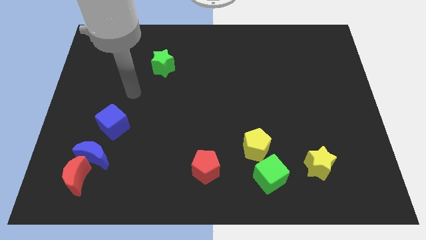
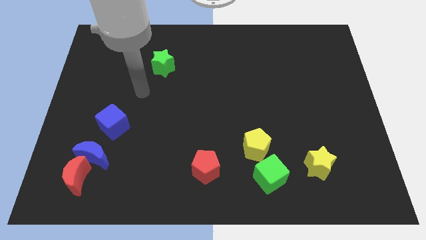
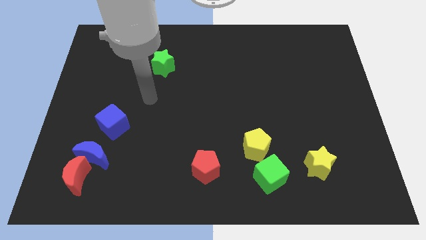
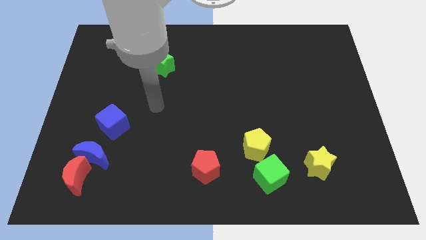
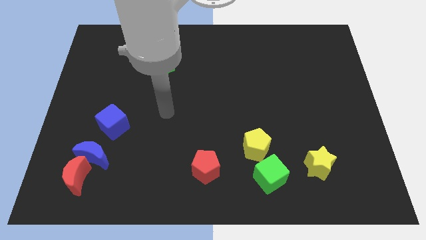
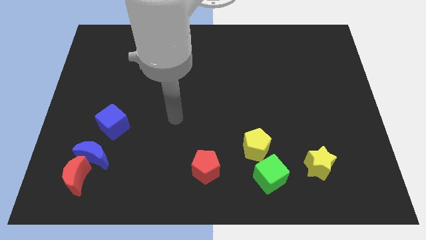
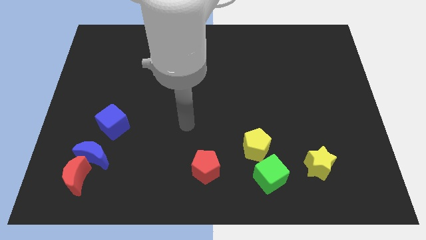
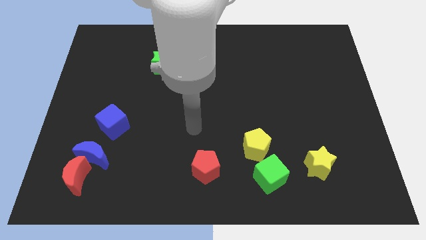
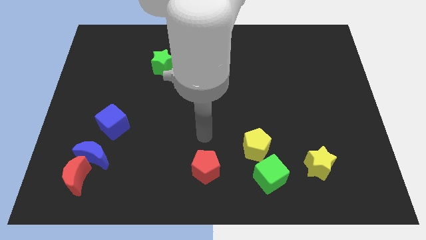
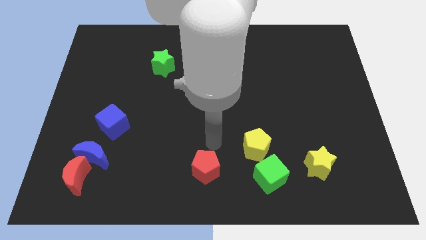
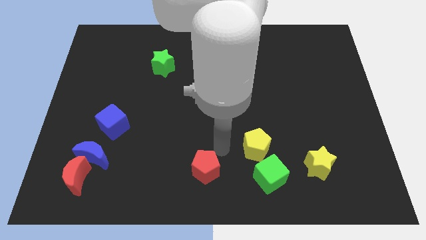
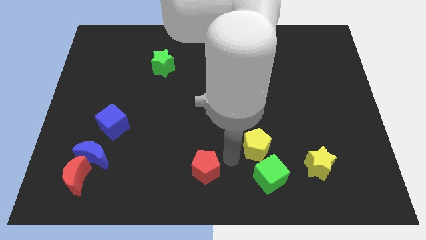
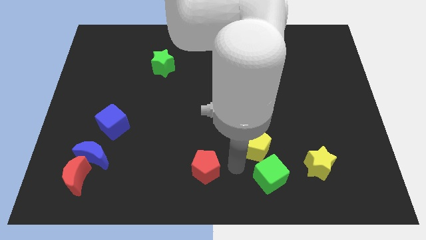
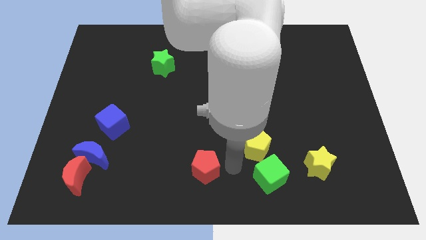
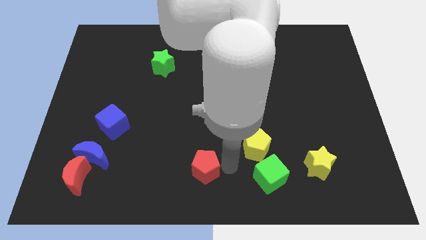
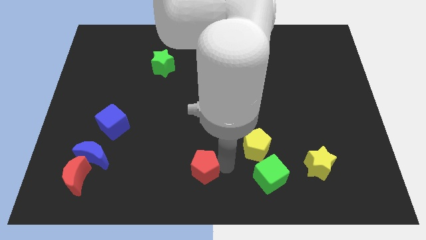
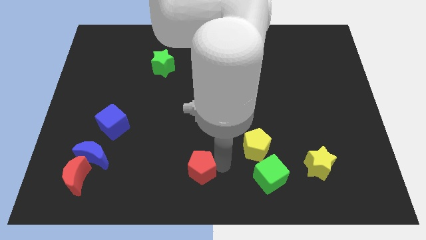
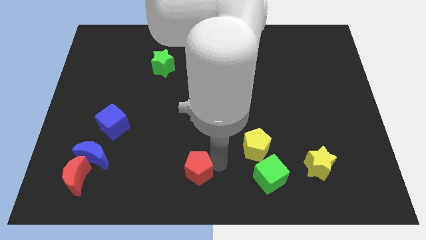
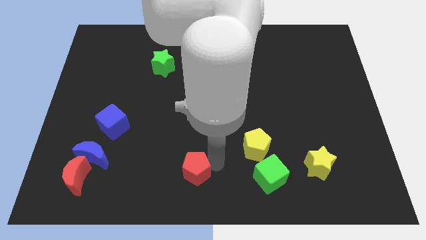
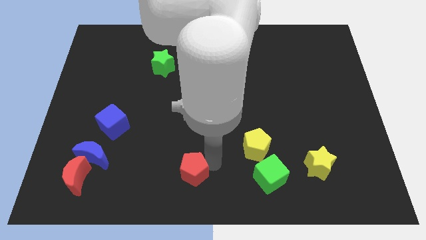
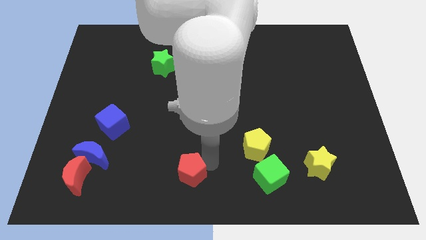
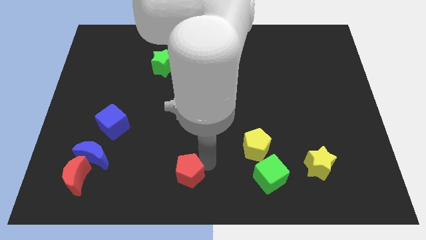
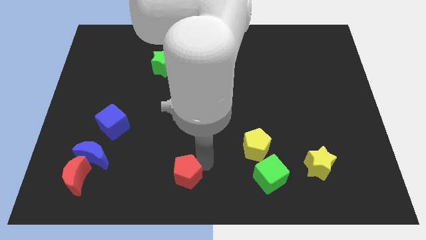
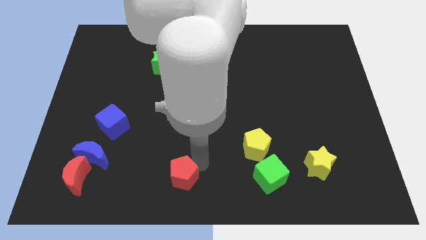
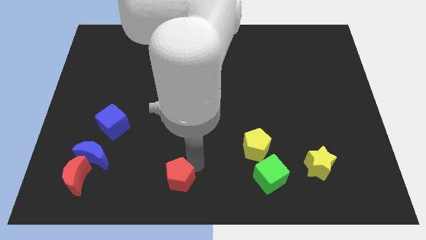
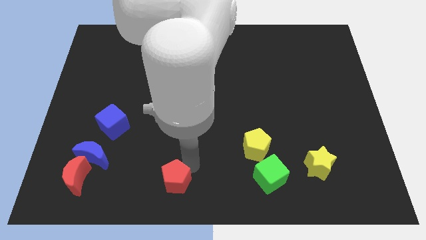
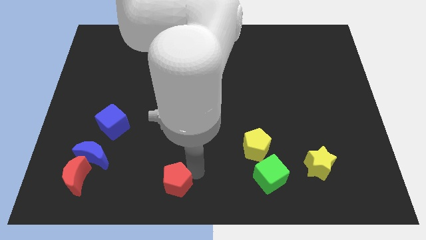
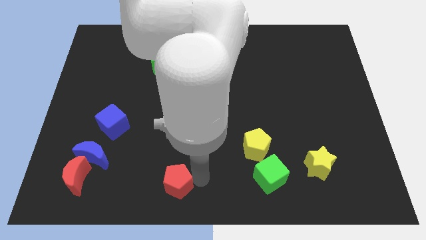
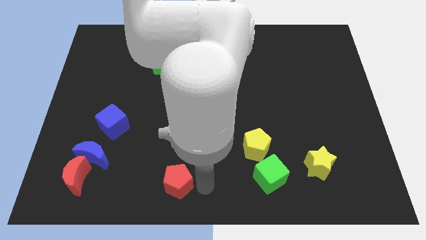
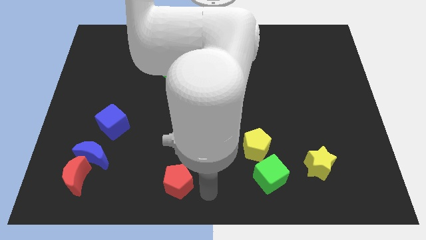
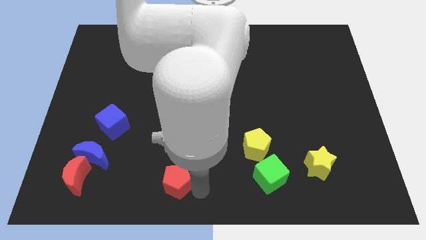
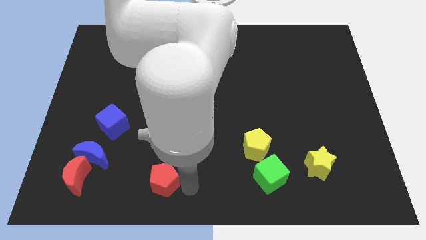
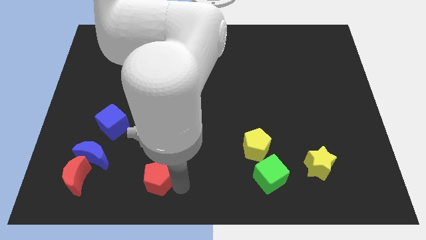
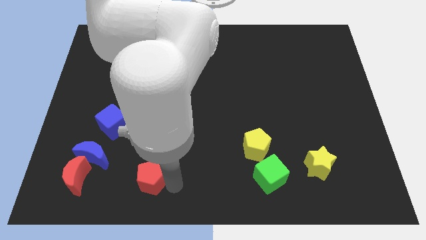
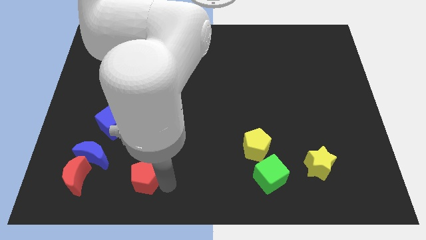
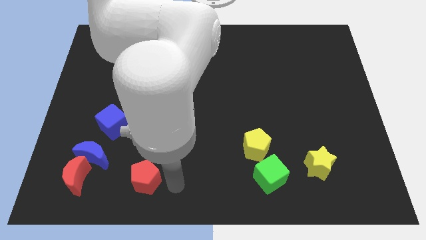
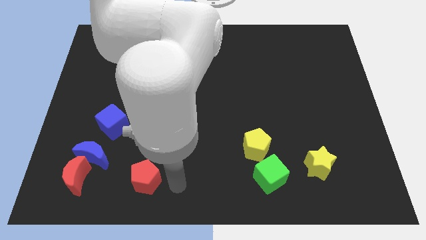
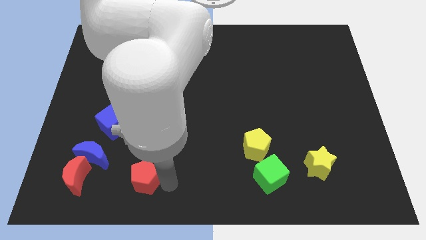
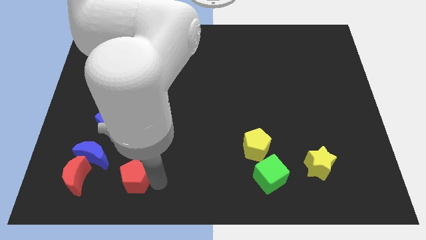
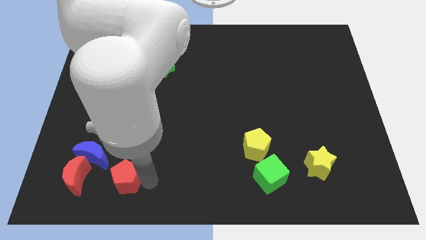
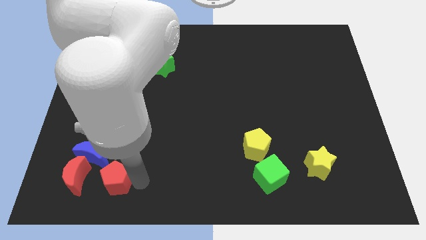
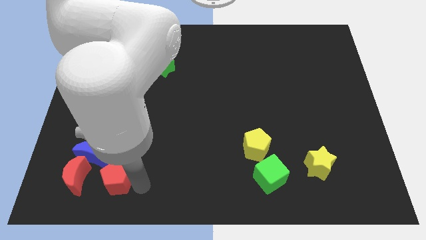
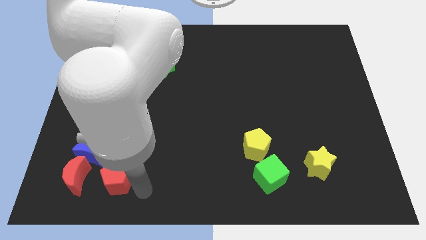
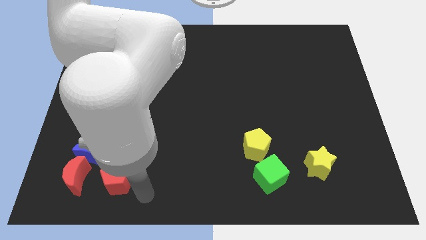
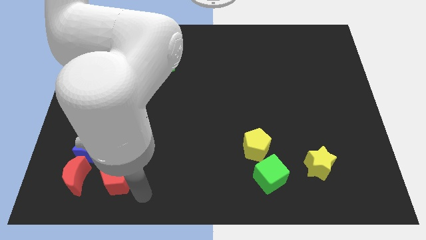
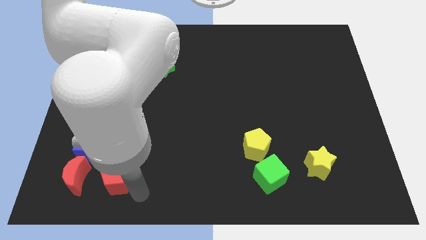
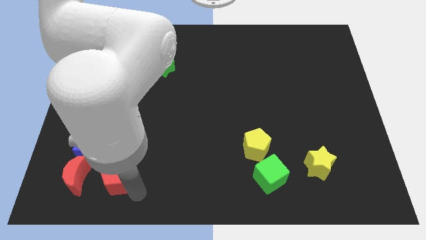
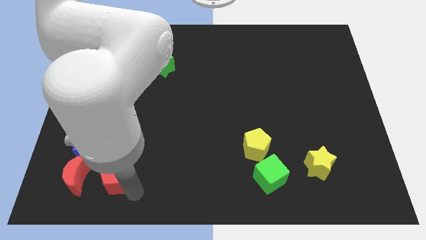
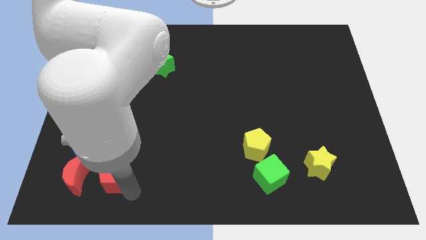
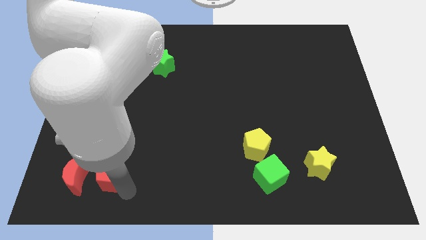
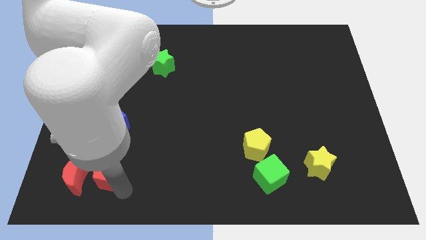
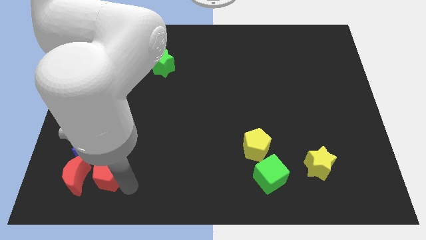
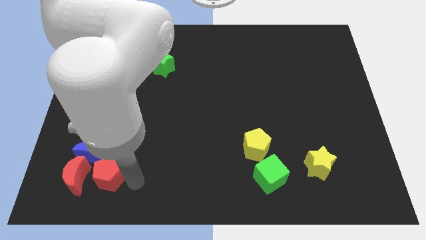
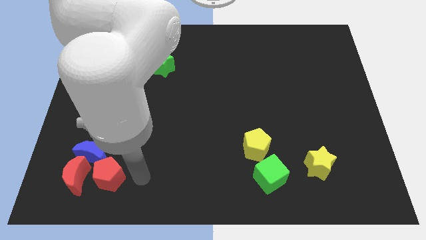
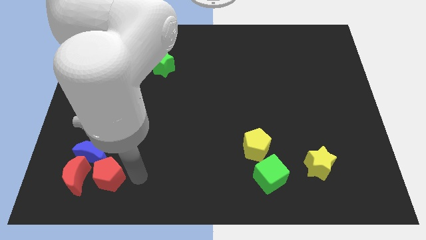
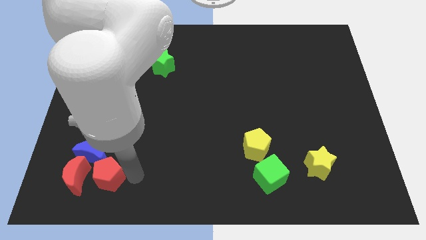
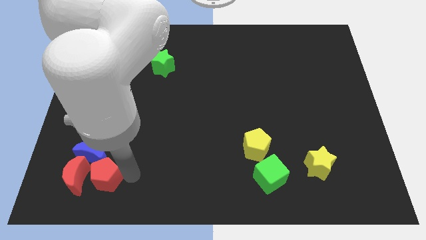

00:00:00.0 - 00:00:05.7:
move the red pentagon towards the red moon

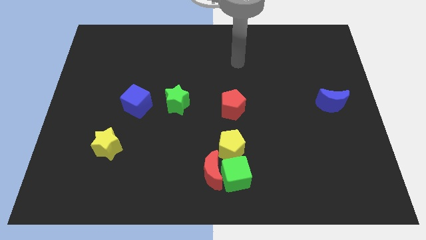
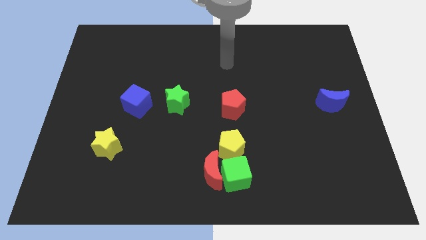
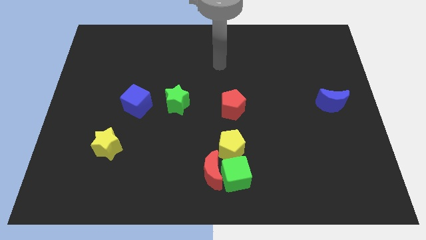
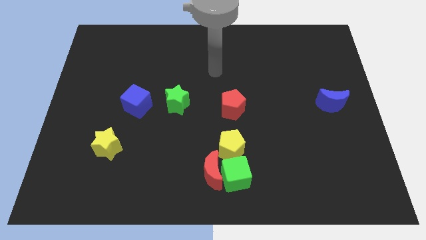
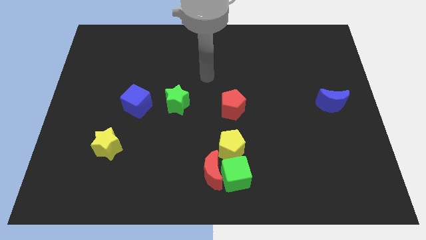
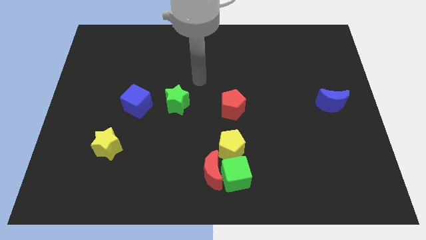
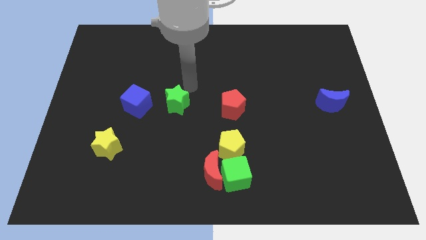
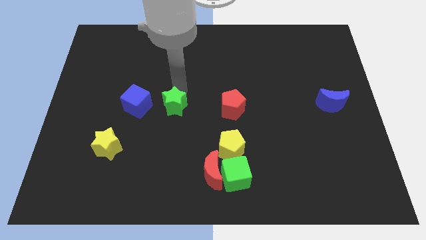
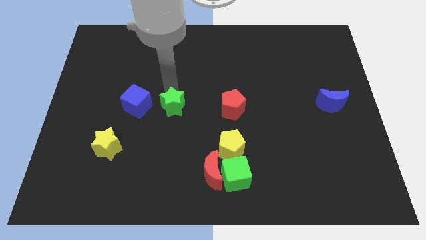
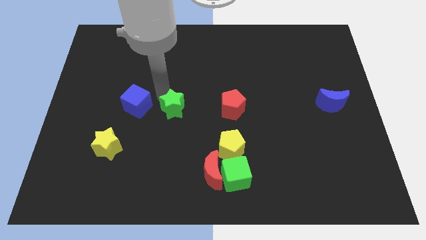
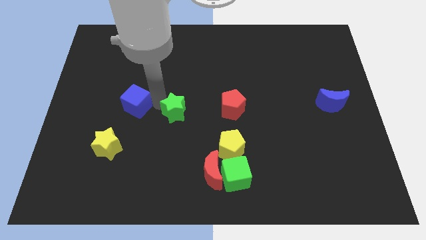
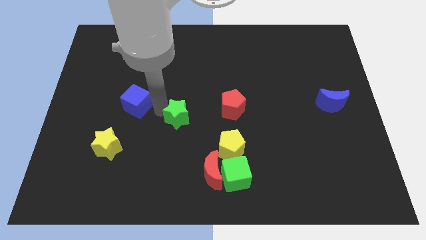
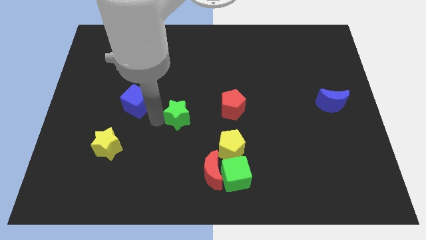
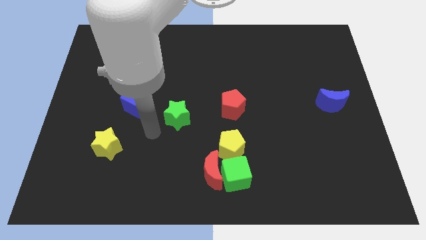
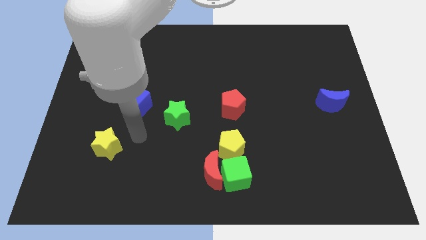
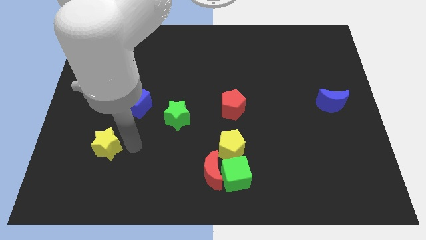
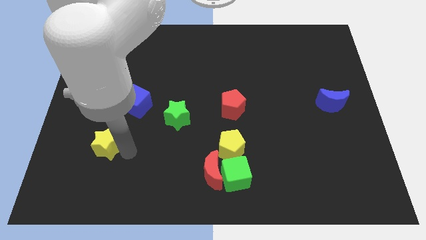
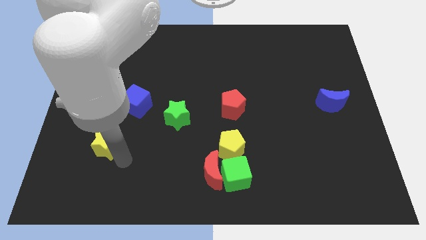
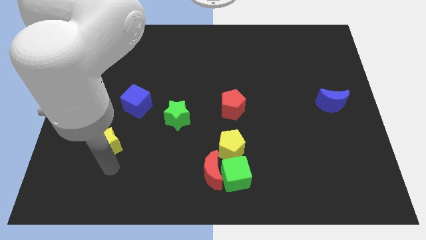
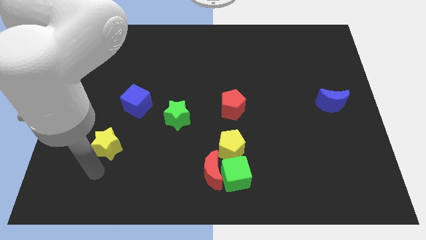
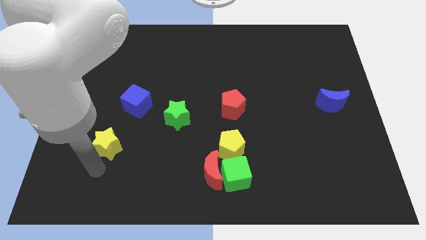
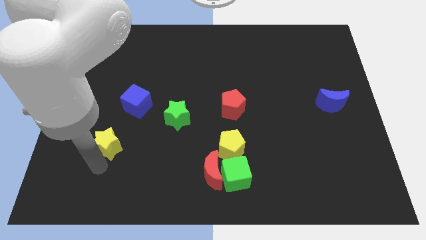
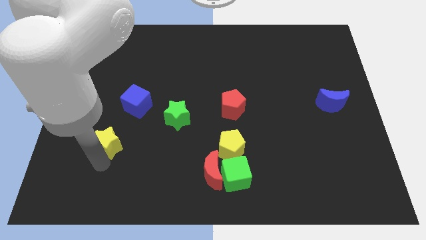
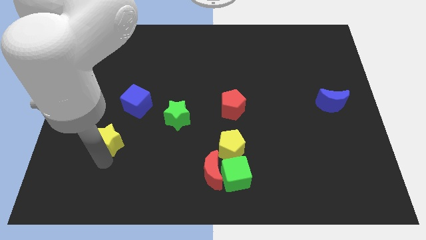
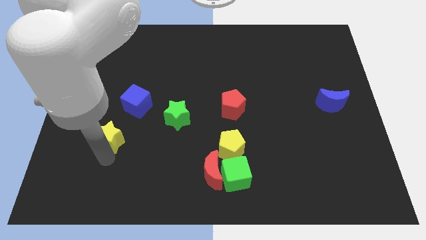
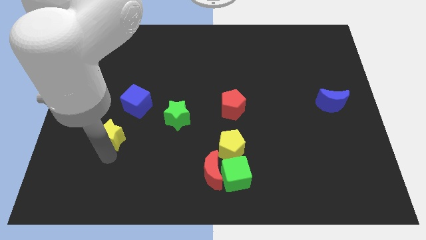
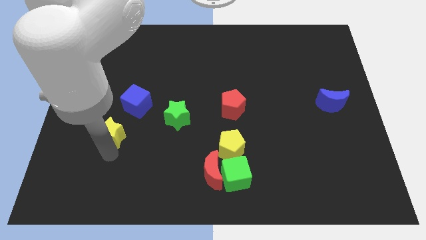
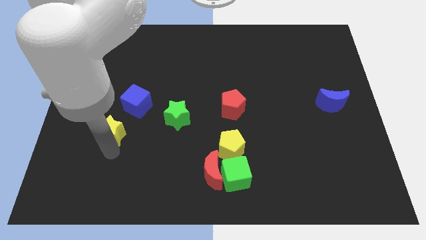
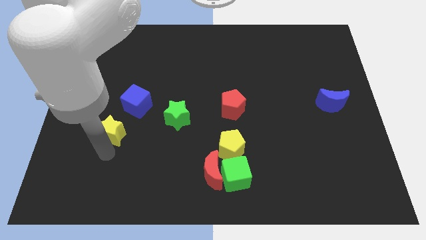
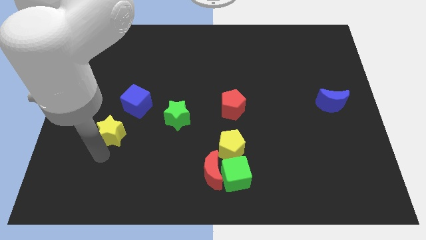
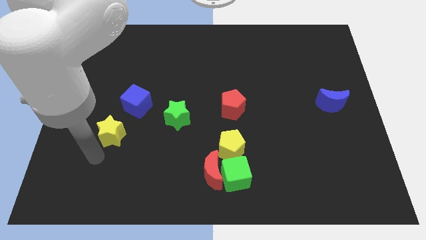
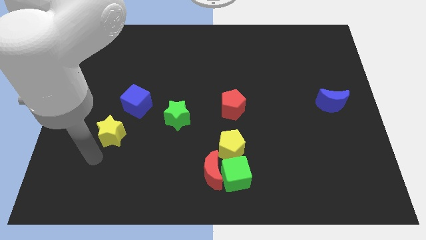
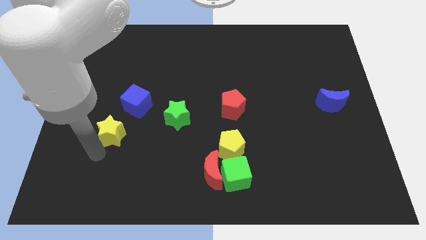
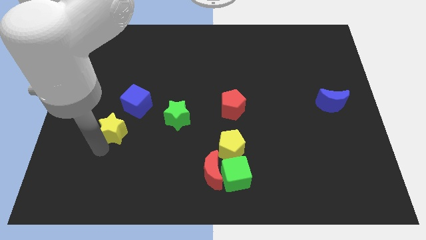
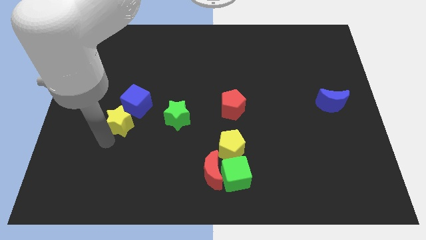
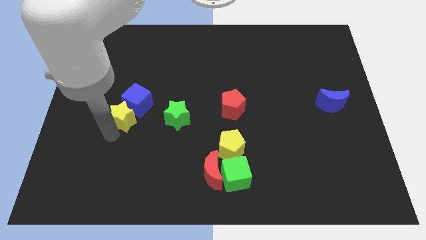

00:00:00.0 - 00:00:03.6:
slide the yellow star close to the blue cube
